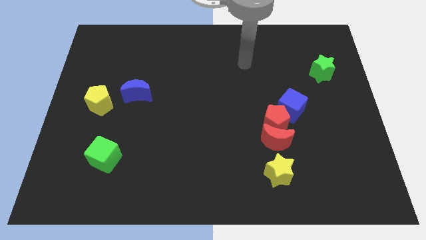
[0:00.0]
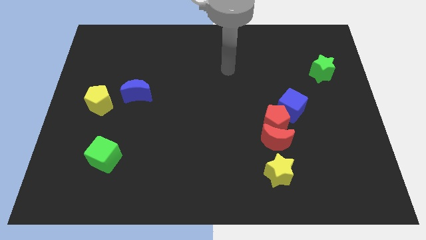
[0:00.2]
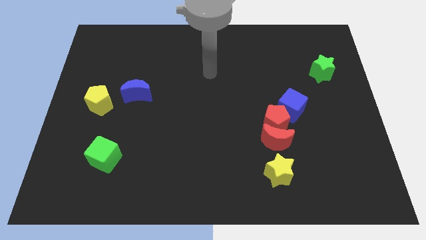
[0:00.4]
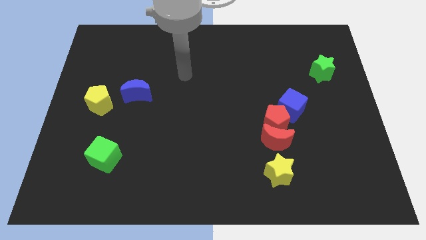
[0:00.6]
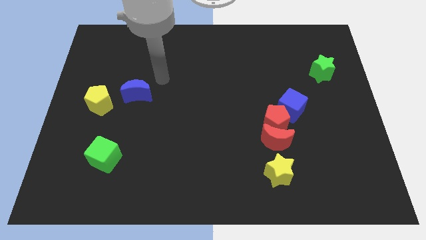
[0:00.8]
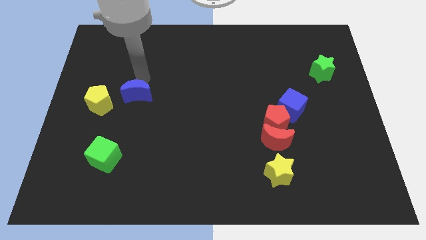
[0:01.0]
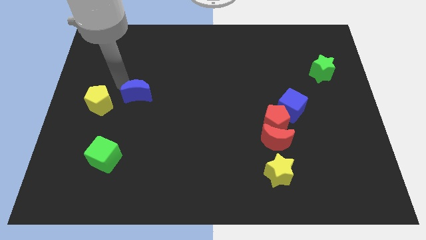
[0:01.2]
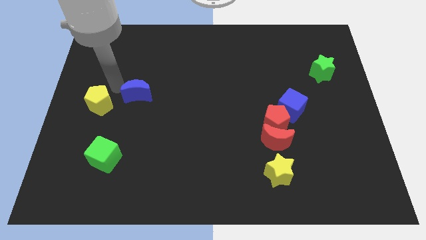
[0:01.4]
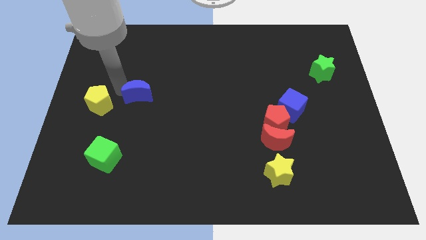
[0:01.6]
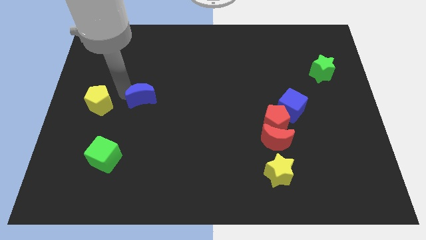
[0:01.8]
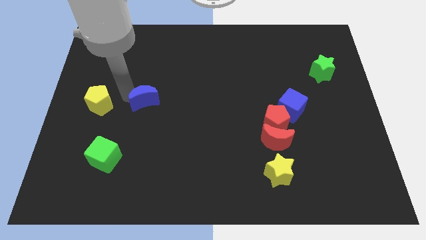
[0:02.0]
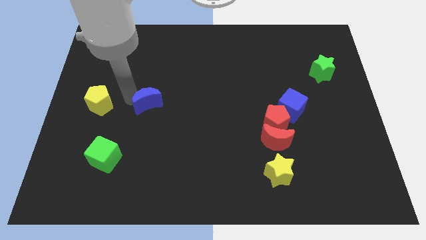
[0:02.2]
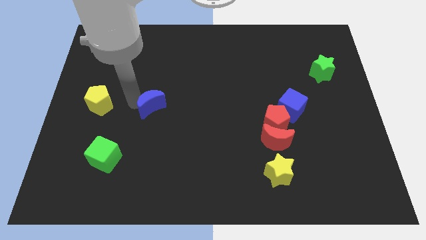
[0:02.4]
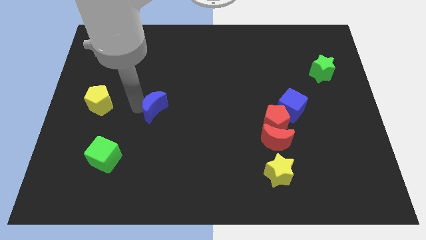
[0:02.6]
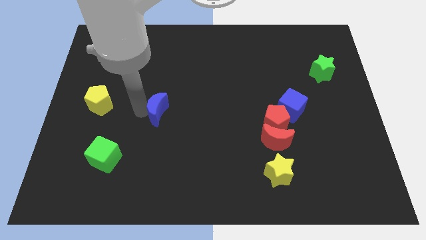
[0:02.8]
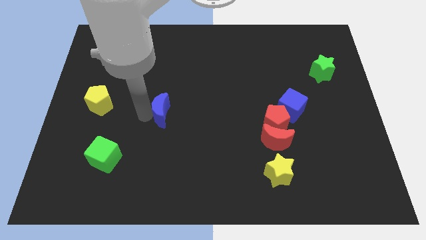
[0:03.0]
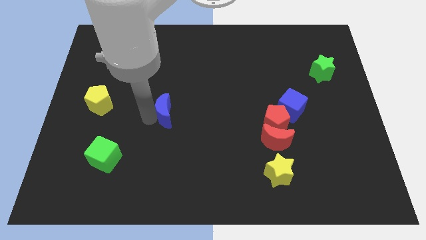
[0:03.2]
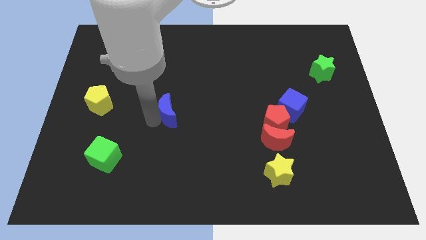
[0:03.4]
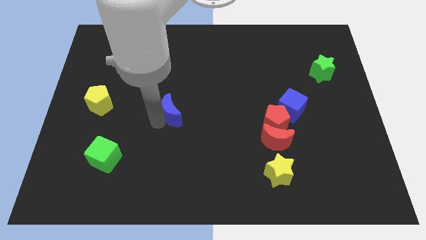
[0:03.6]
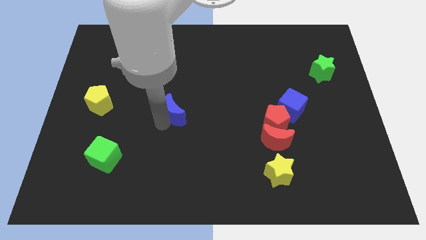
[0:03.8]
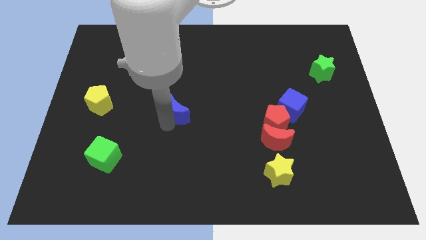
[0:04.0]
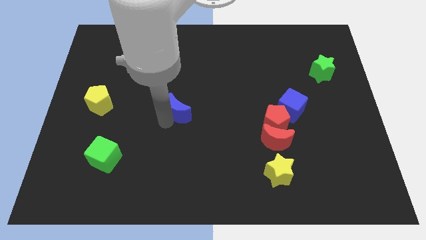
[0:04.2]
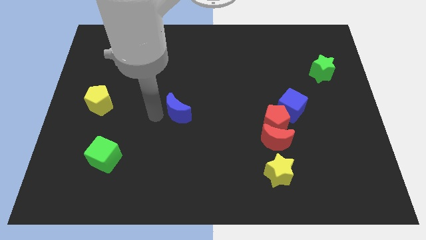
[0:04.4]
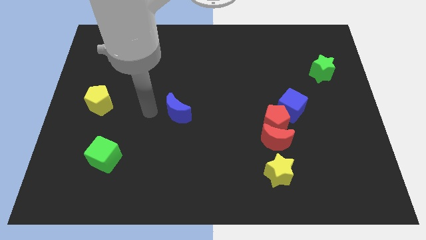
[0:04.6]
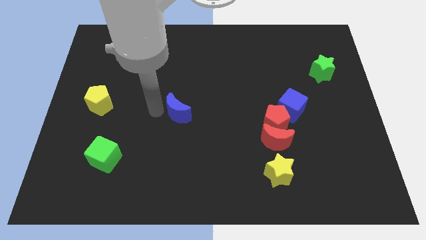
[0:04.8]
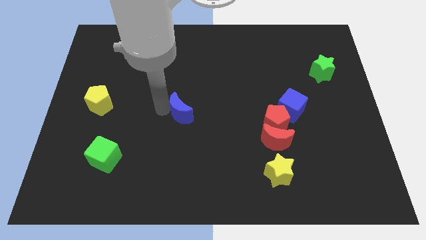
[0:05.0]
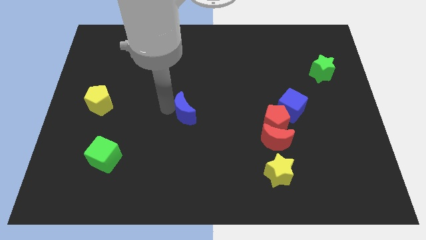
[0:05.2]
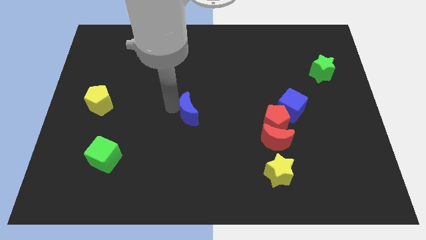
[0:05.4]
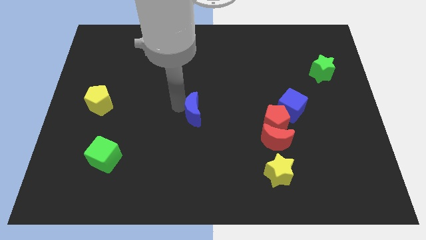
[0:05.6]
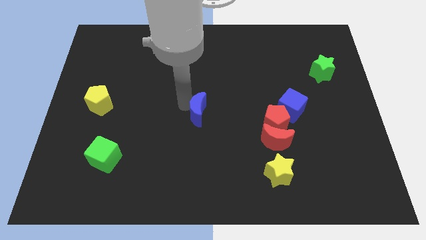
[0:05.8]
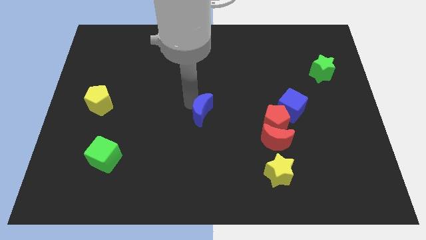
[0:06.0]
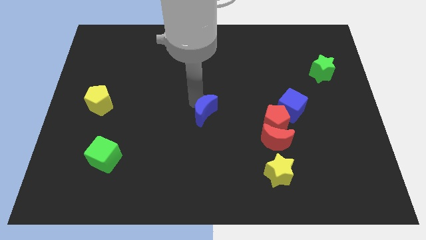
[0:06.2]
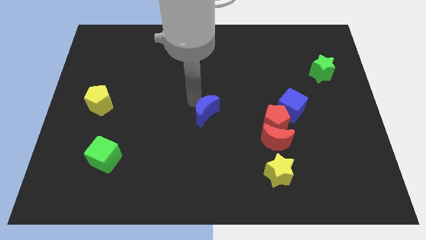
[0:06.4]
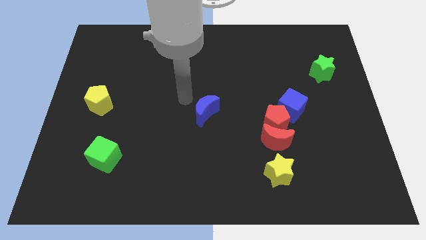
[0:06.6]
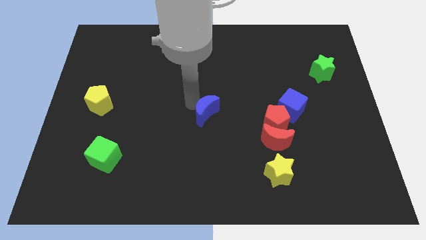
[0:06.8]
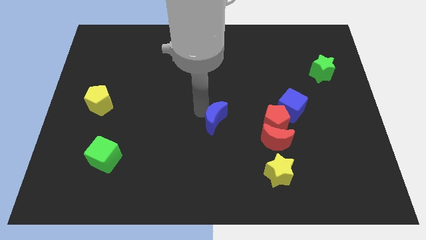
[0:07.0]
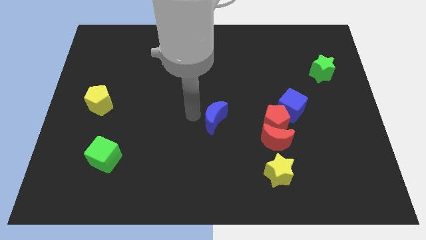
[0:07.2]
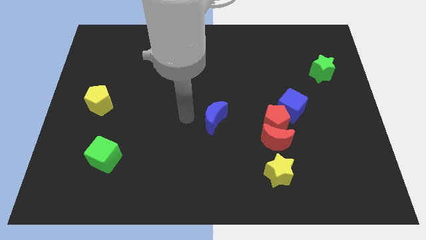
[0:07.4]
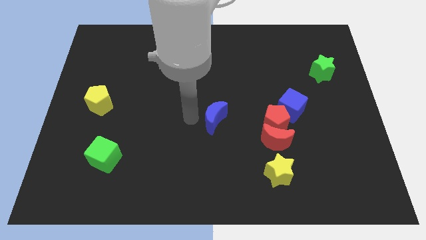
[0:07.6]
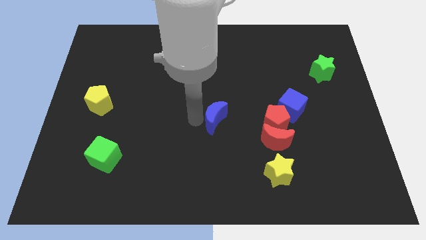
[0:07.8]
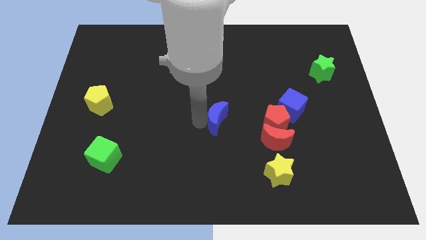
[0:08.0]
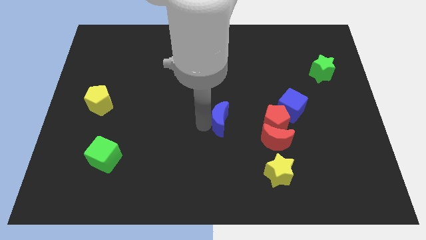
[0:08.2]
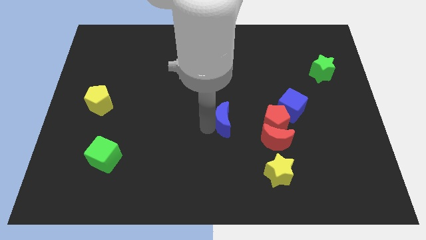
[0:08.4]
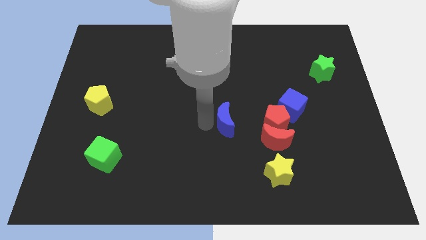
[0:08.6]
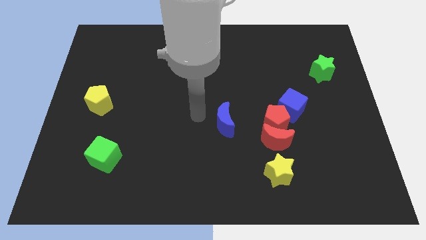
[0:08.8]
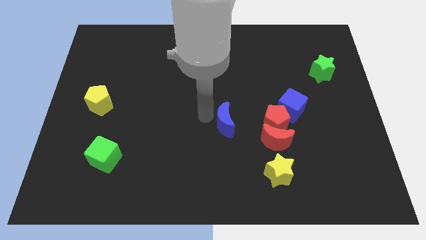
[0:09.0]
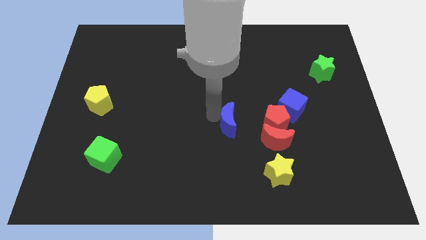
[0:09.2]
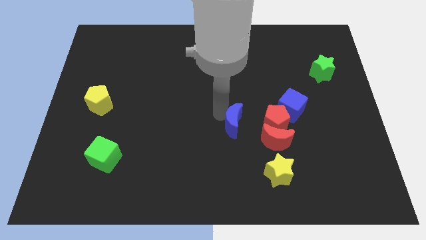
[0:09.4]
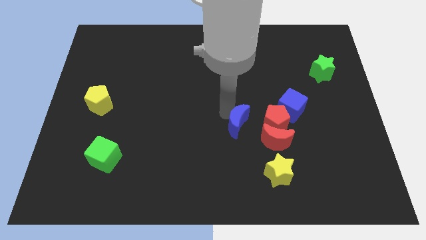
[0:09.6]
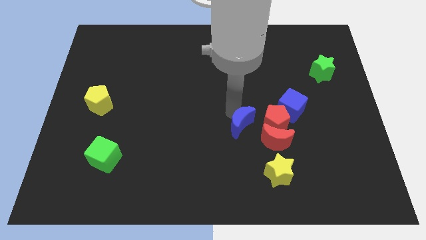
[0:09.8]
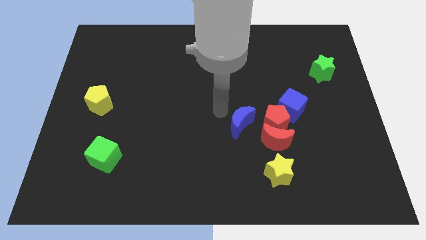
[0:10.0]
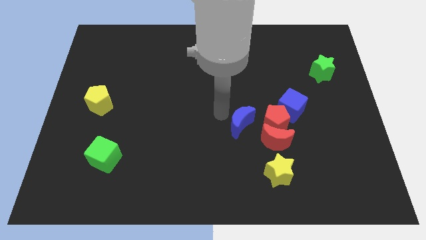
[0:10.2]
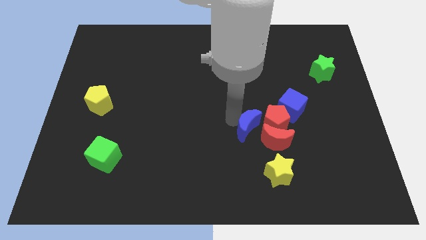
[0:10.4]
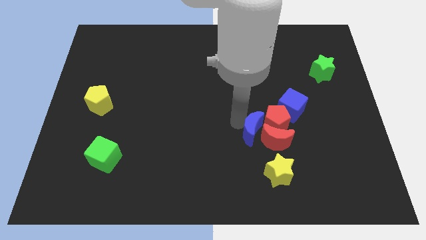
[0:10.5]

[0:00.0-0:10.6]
put the blue moon close to the red moon

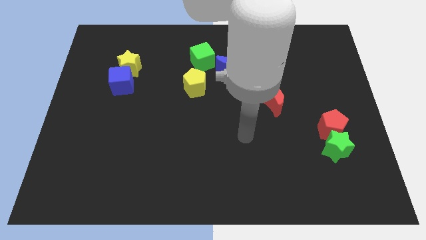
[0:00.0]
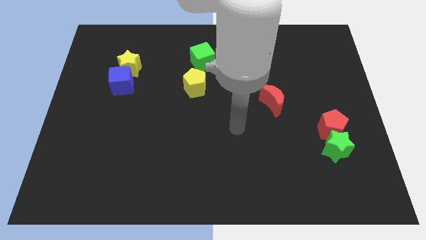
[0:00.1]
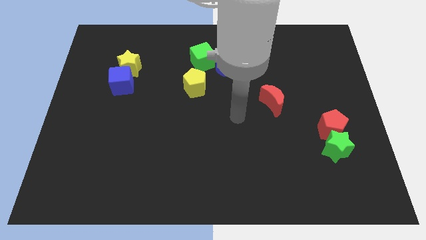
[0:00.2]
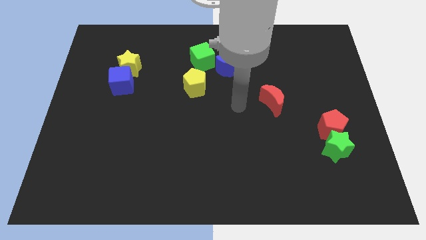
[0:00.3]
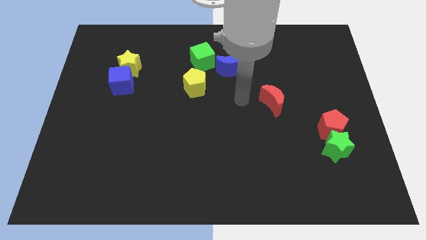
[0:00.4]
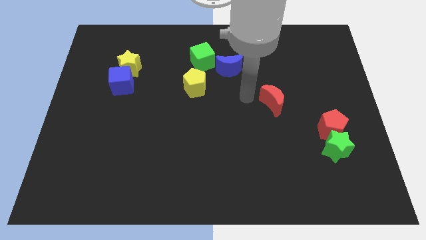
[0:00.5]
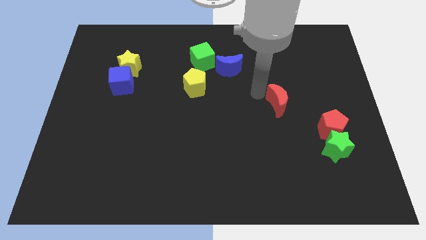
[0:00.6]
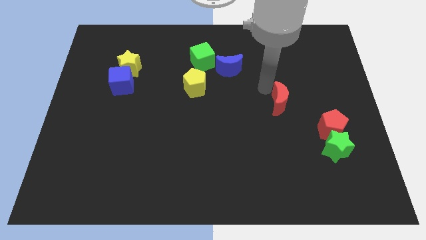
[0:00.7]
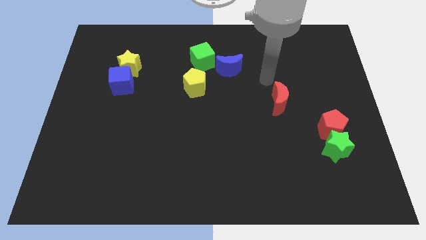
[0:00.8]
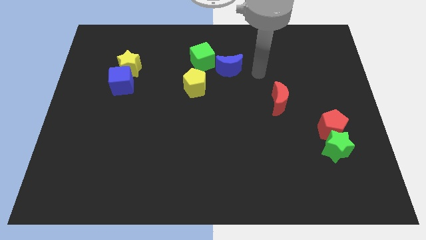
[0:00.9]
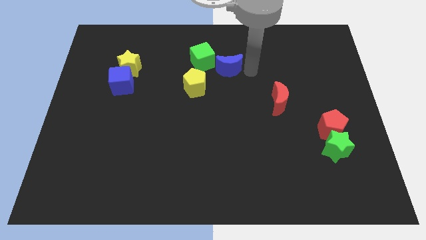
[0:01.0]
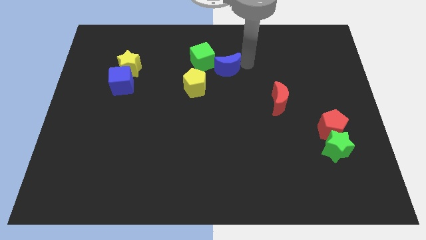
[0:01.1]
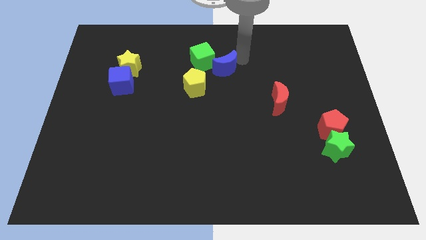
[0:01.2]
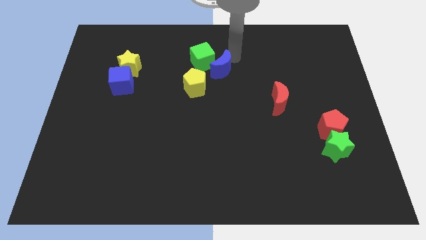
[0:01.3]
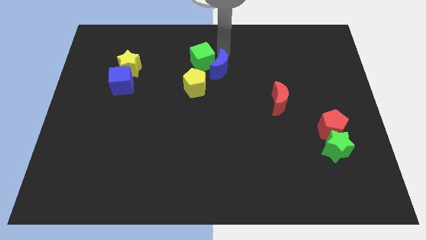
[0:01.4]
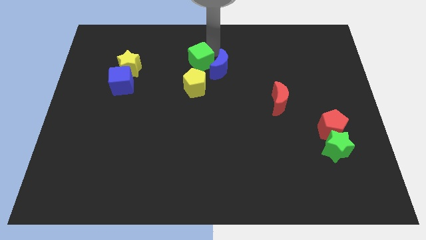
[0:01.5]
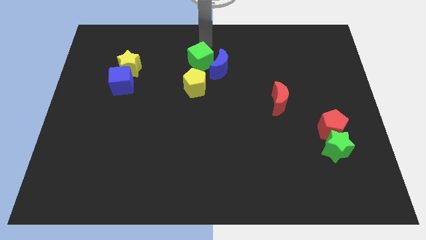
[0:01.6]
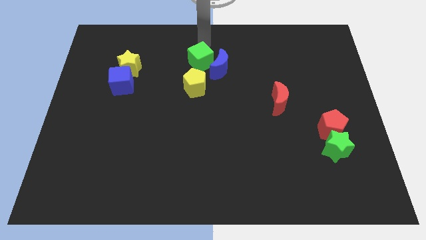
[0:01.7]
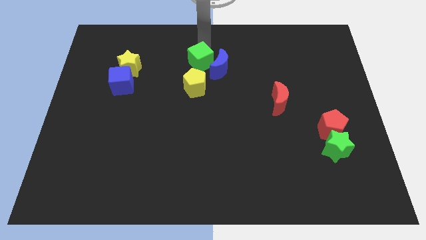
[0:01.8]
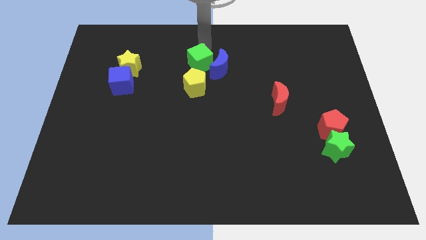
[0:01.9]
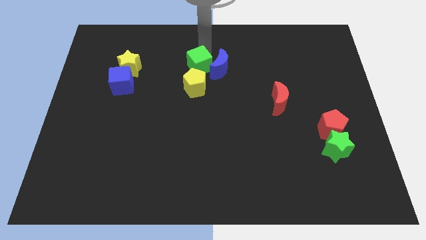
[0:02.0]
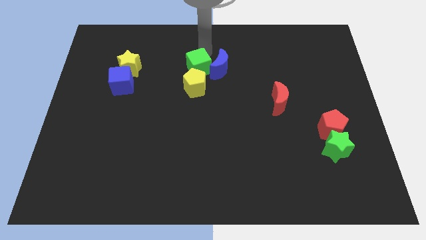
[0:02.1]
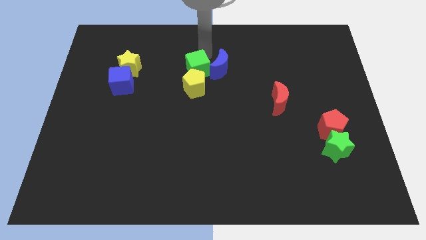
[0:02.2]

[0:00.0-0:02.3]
push the green cube close to the yellow pentagon
